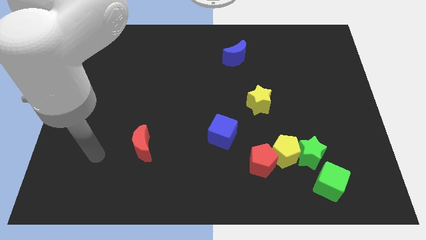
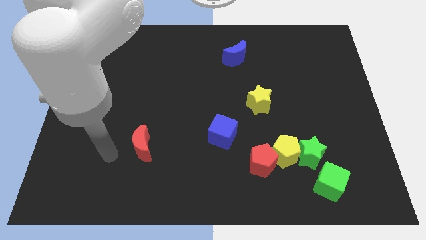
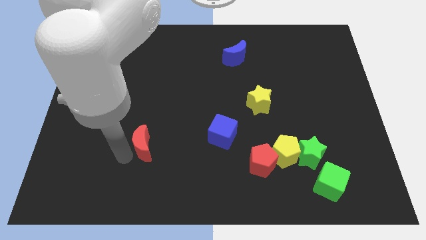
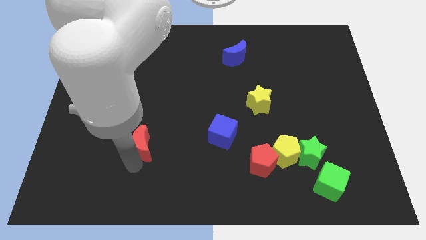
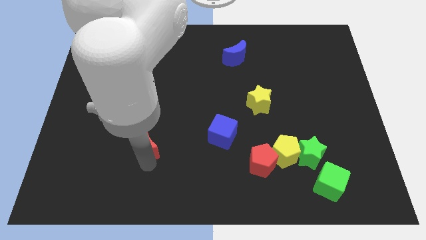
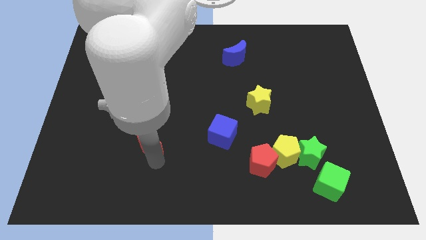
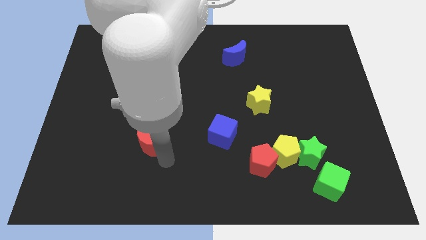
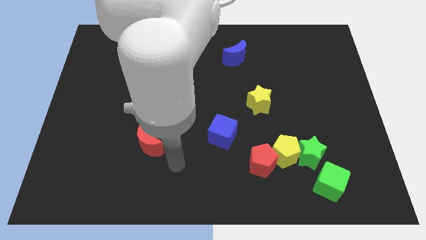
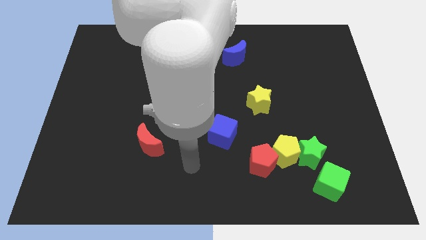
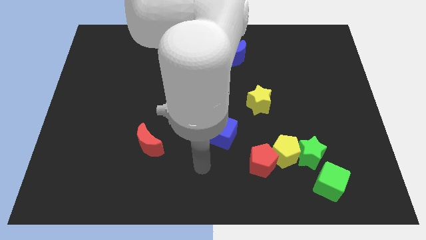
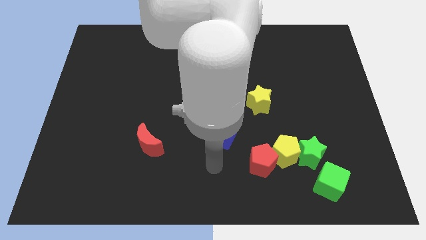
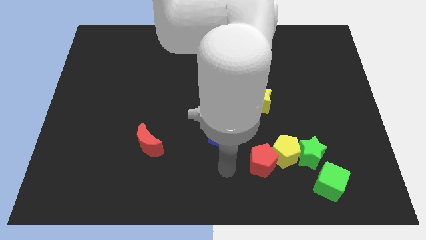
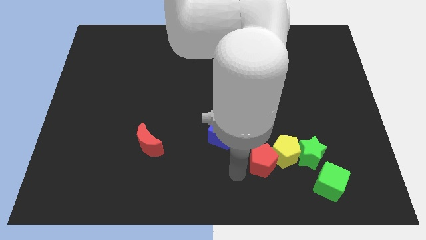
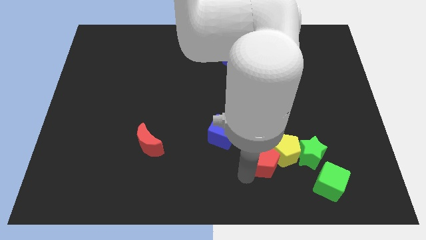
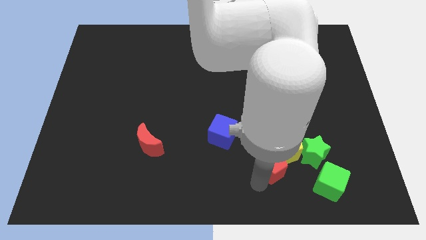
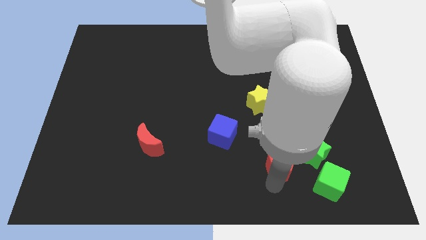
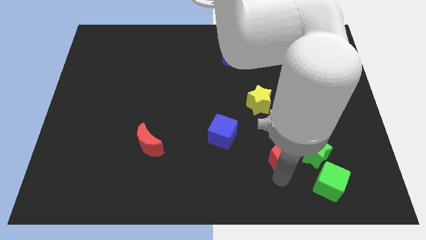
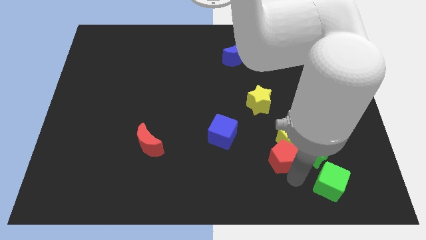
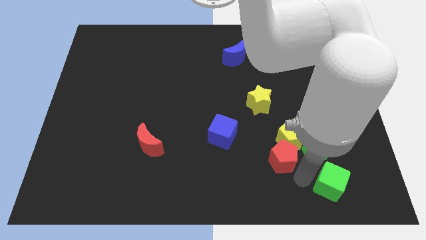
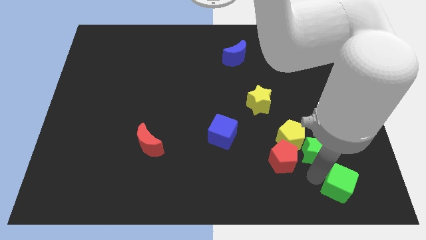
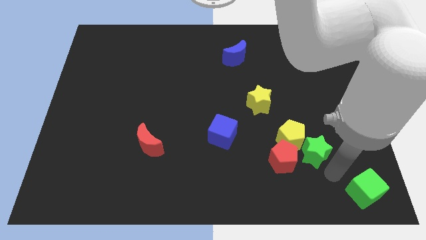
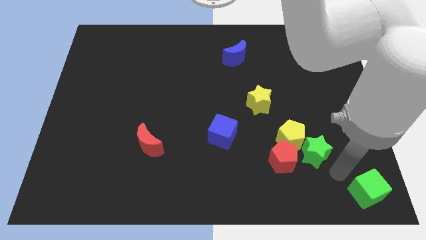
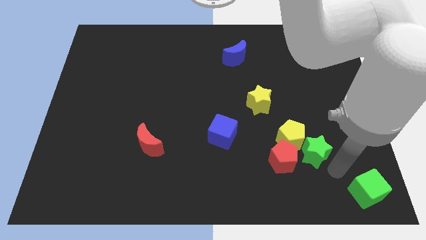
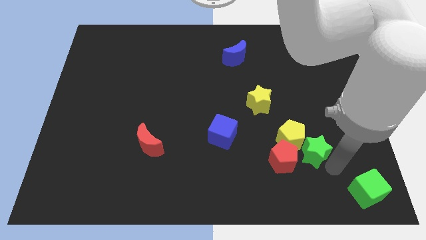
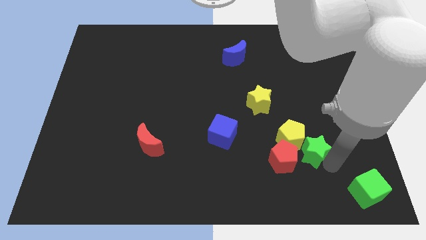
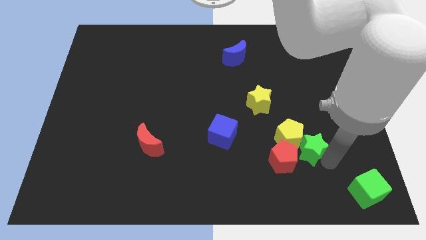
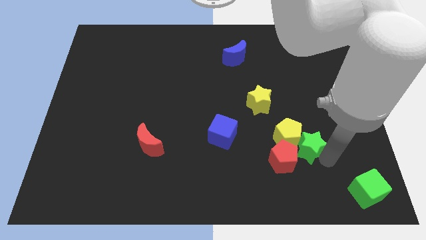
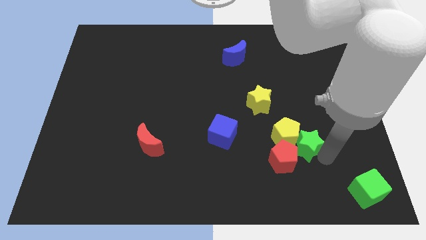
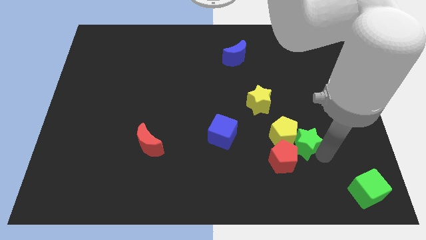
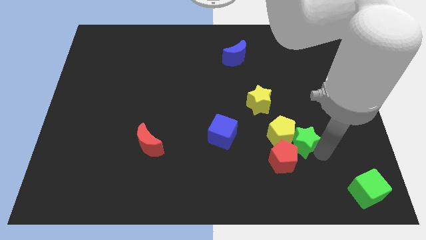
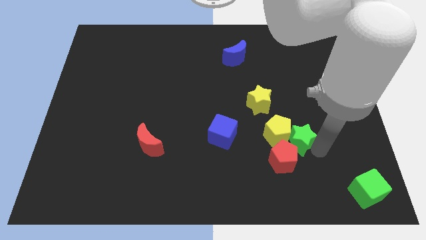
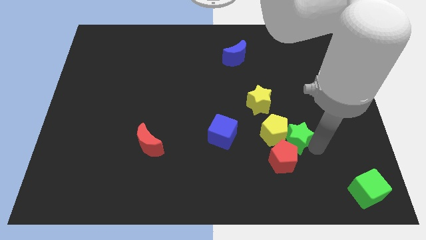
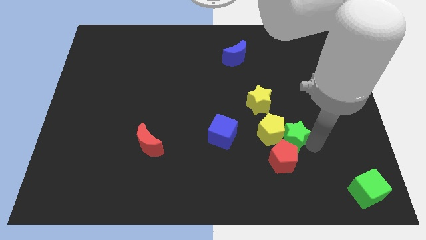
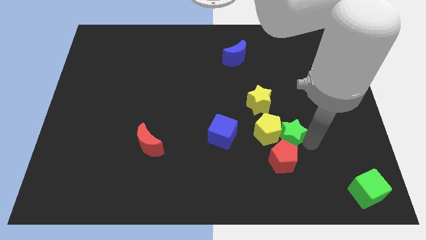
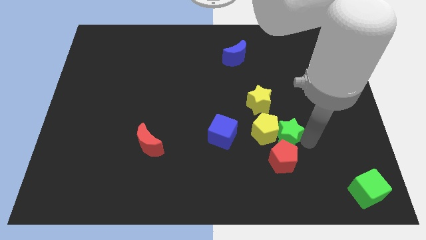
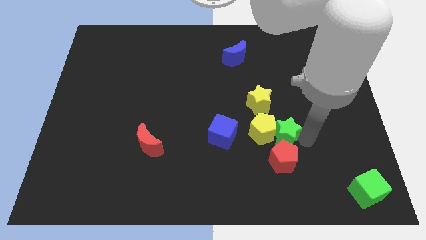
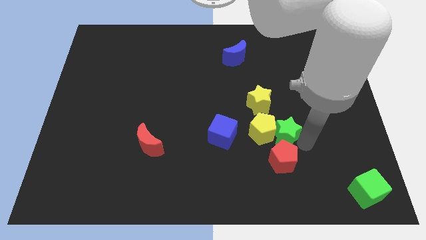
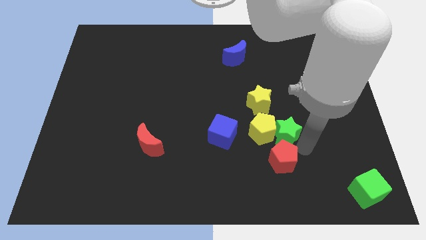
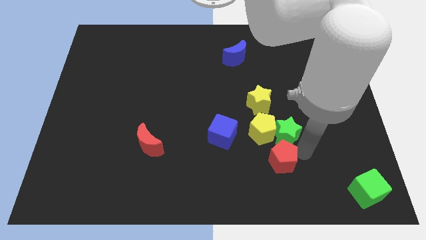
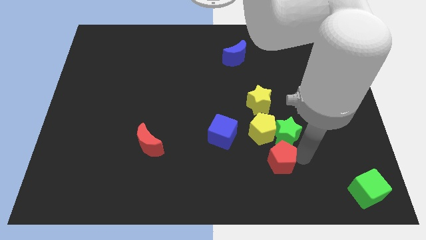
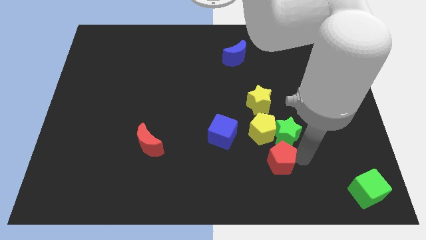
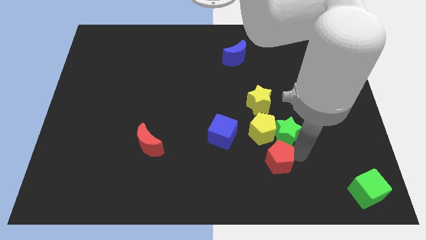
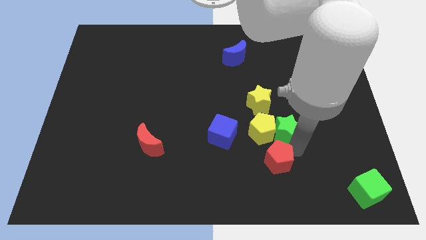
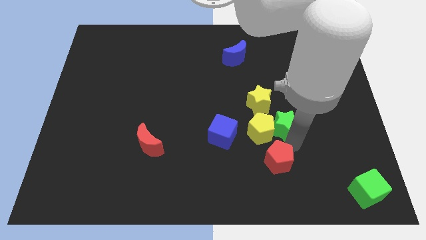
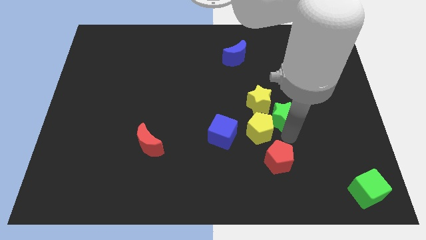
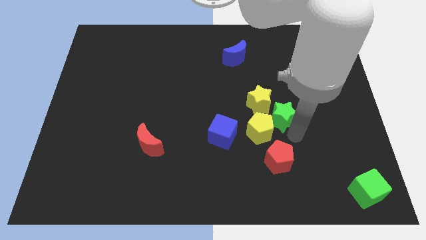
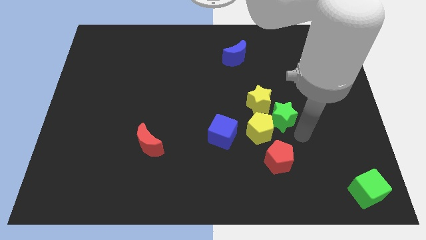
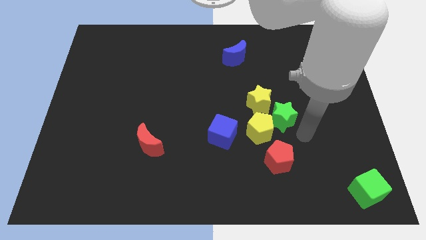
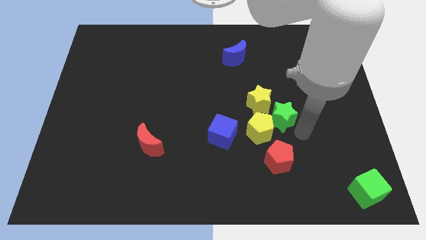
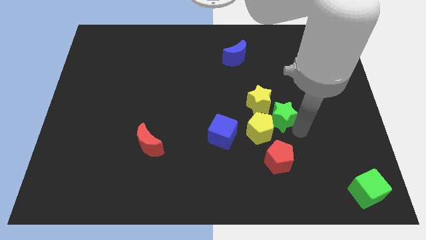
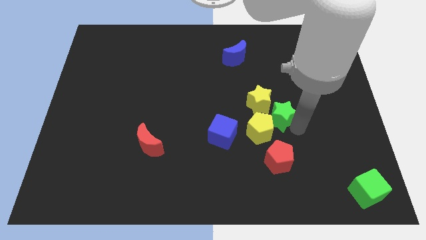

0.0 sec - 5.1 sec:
slide the green star close to the yellow star

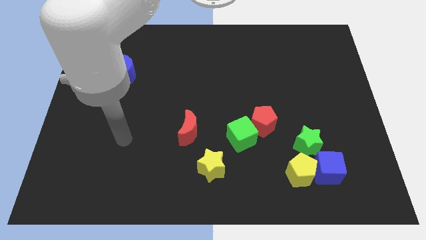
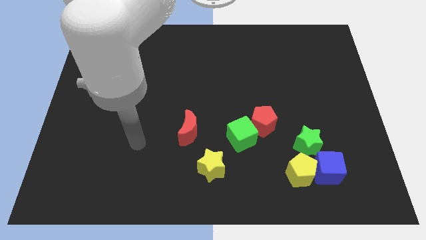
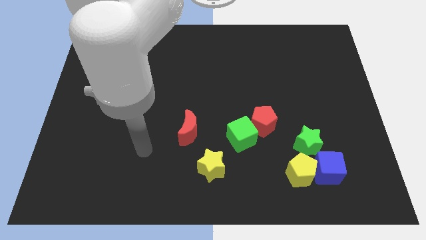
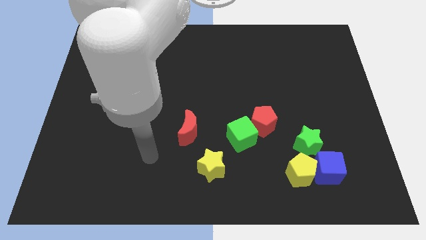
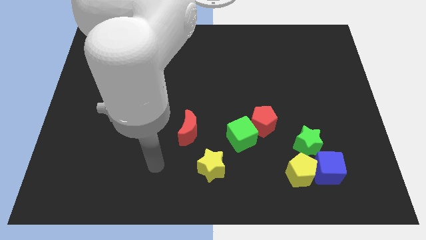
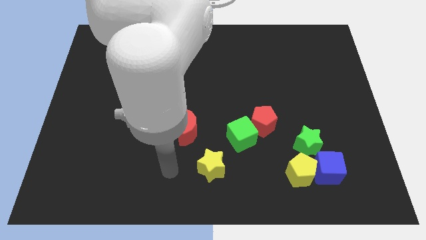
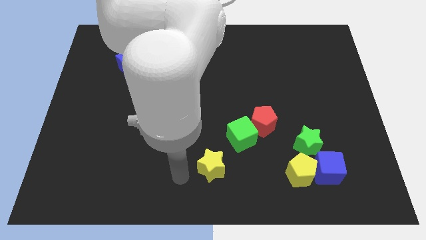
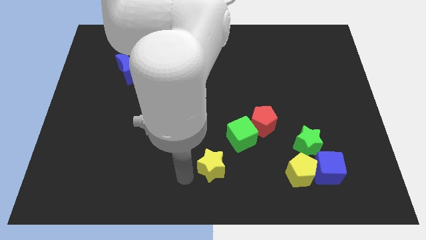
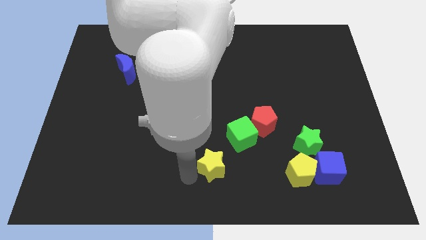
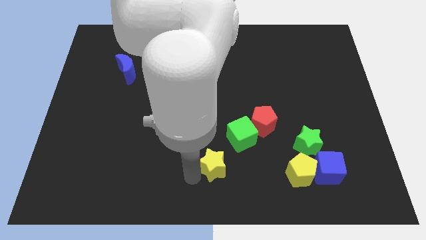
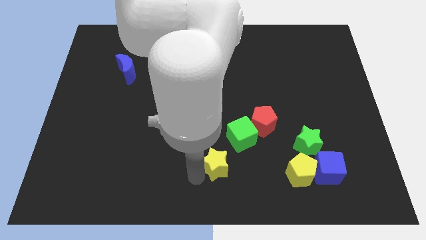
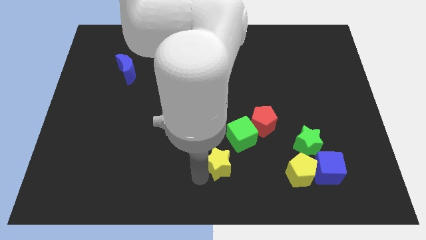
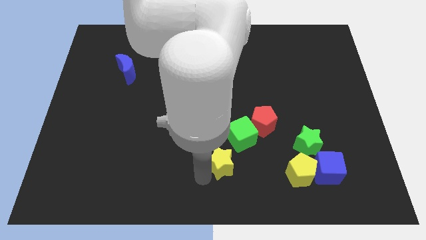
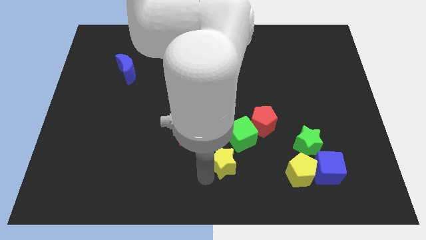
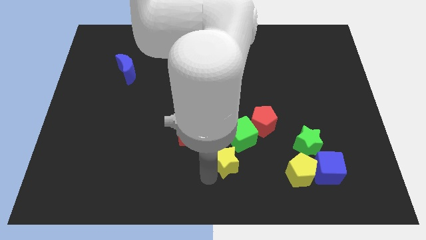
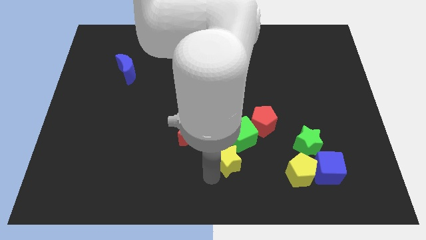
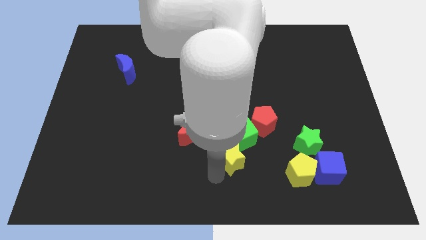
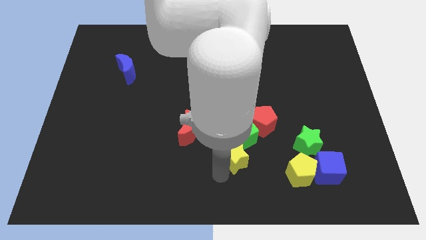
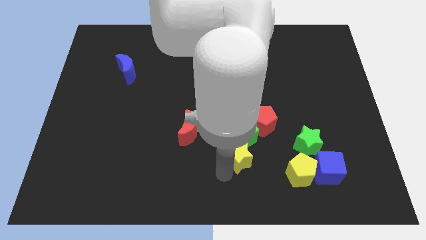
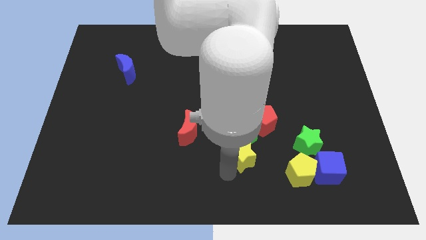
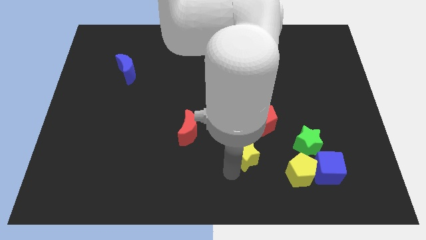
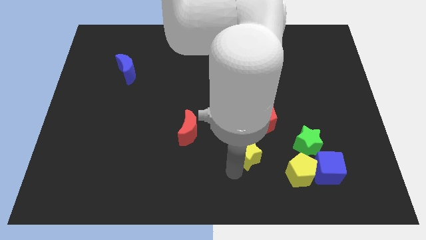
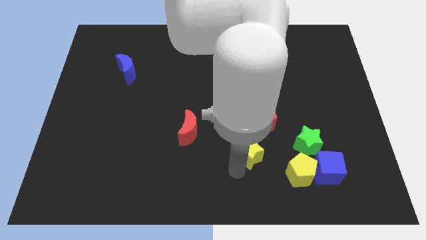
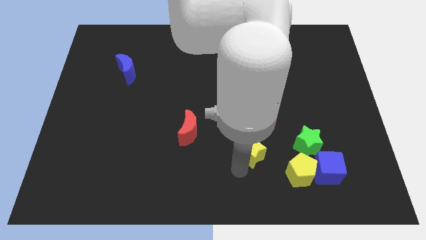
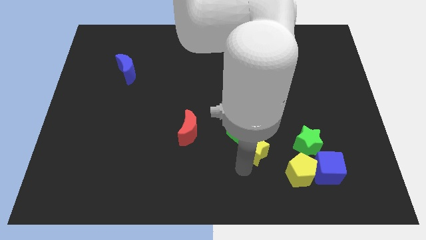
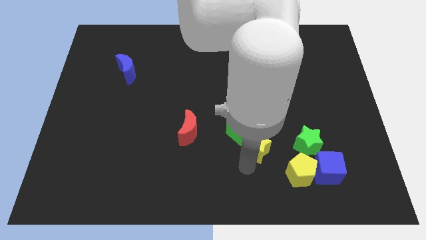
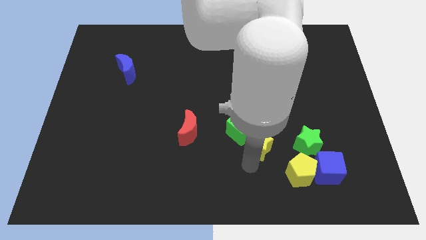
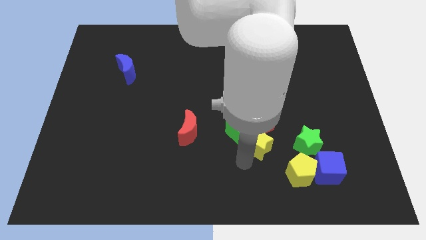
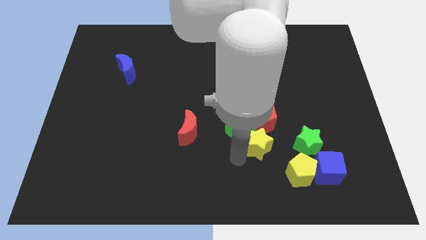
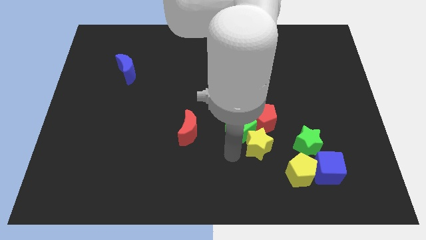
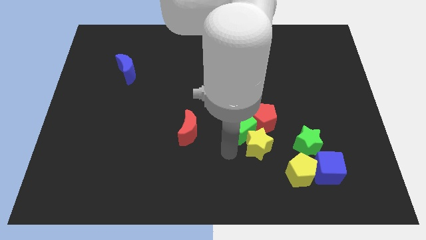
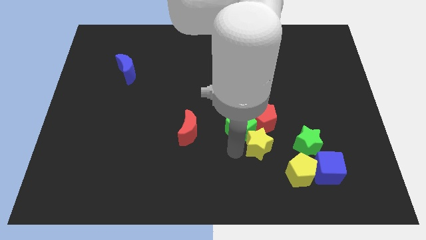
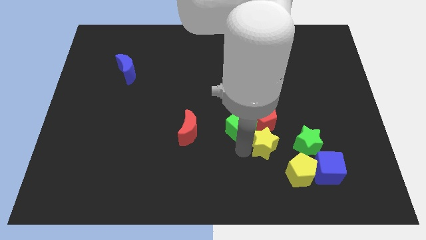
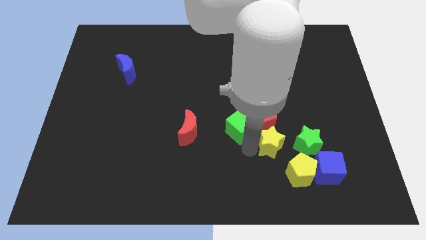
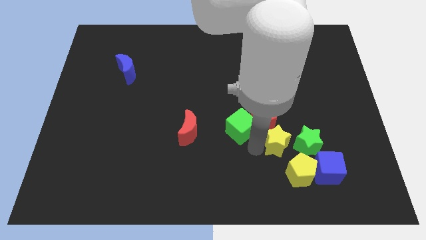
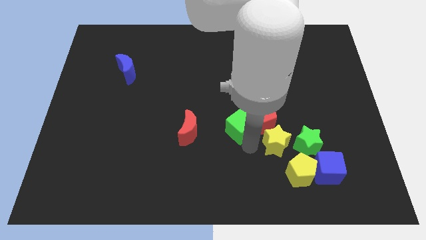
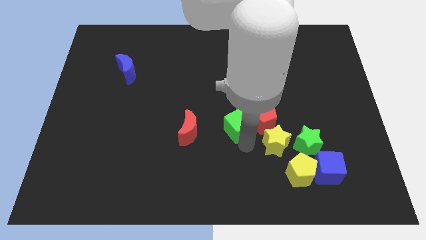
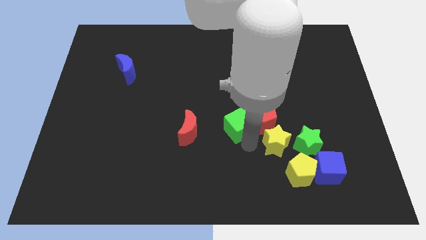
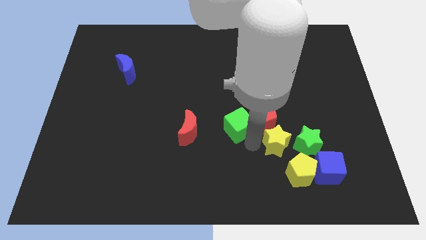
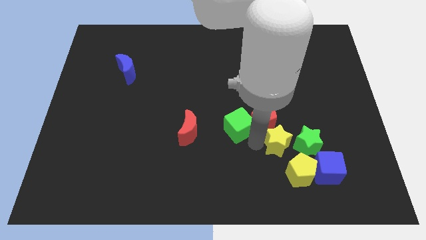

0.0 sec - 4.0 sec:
put the yellow star close to the green star
